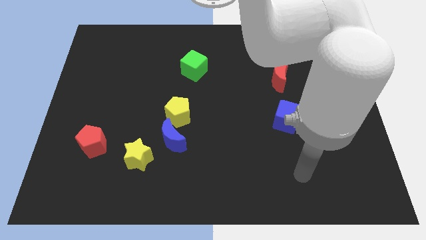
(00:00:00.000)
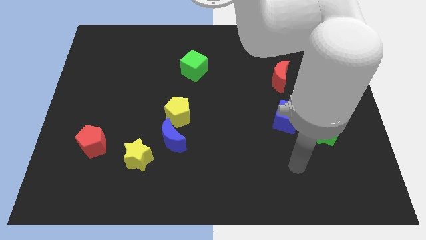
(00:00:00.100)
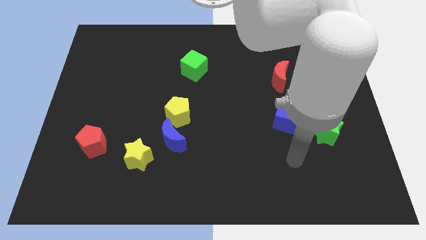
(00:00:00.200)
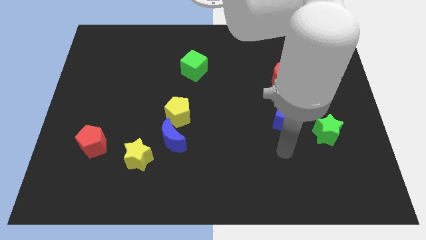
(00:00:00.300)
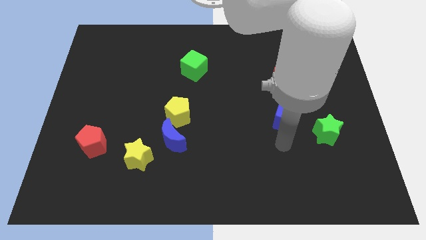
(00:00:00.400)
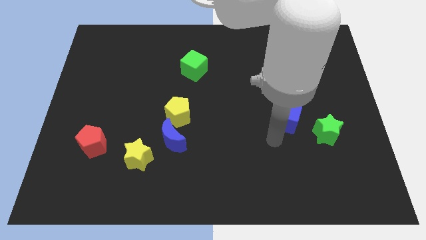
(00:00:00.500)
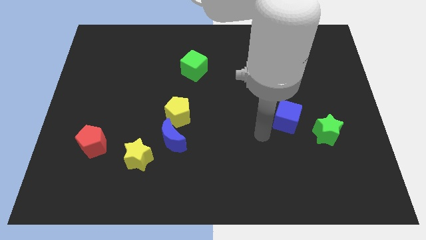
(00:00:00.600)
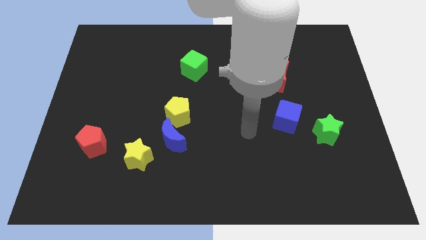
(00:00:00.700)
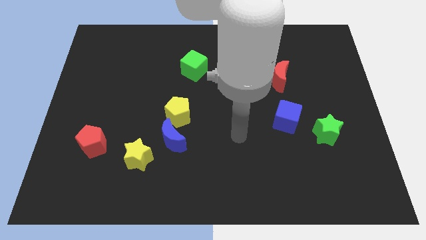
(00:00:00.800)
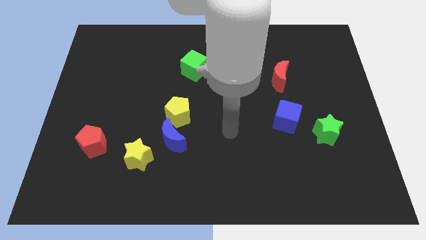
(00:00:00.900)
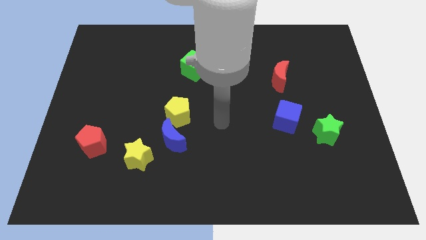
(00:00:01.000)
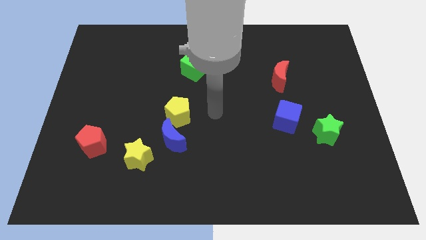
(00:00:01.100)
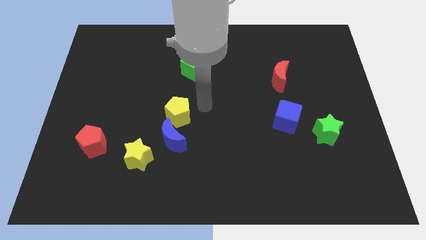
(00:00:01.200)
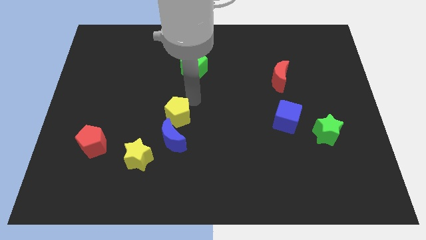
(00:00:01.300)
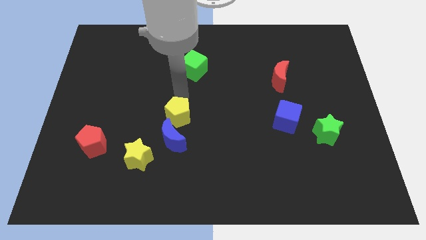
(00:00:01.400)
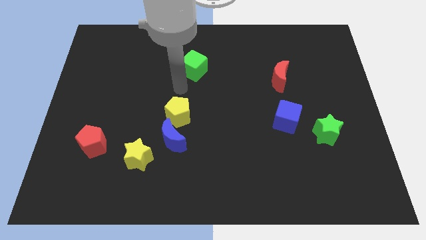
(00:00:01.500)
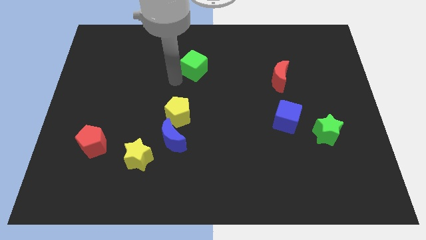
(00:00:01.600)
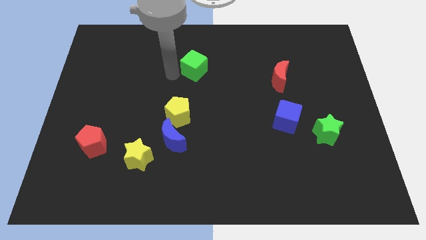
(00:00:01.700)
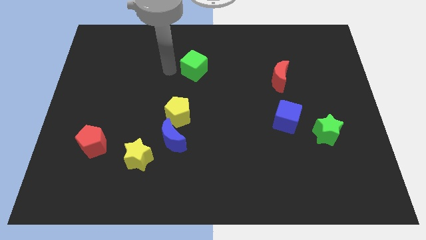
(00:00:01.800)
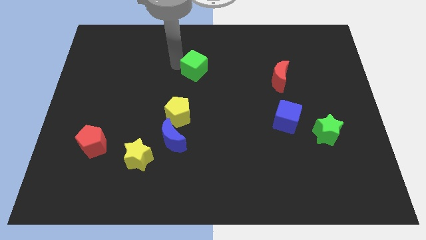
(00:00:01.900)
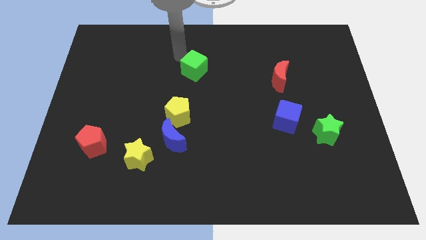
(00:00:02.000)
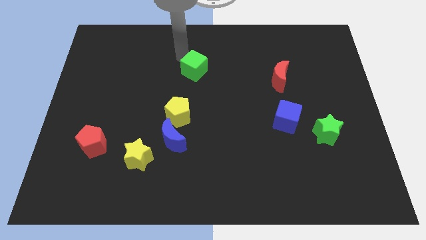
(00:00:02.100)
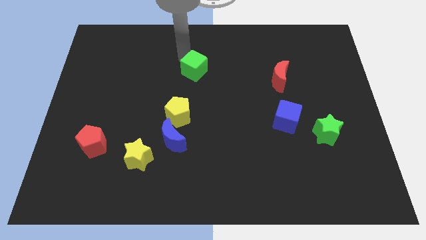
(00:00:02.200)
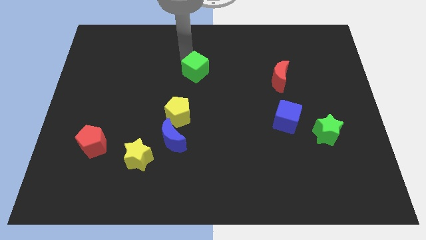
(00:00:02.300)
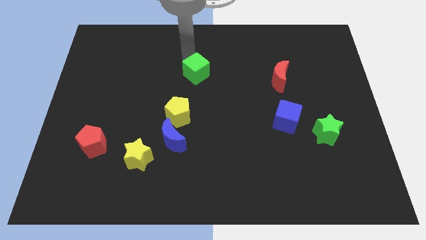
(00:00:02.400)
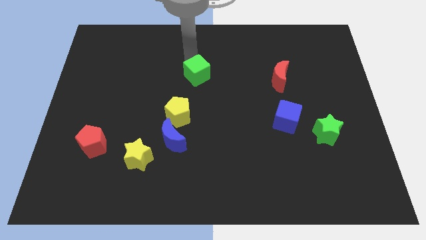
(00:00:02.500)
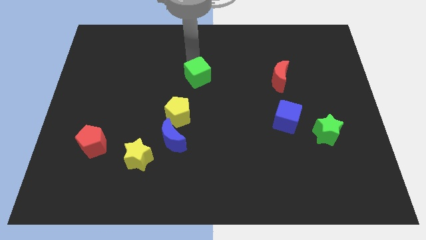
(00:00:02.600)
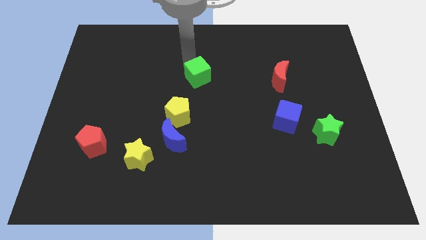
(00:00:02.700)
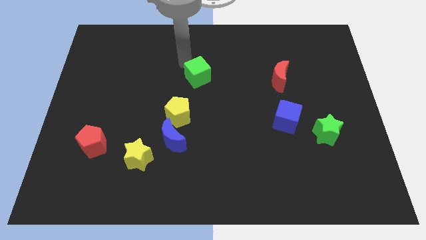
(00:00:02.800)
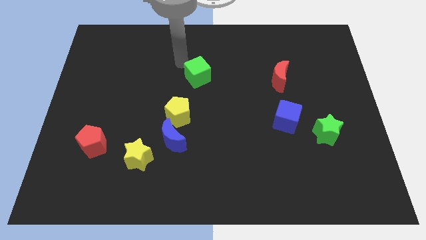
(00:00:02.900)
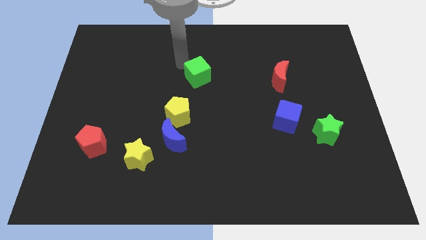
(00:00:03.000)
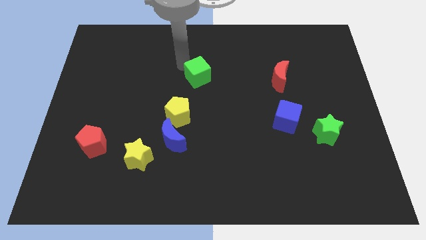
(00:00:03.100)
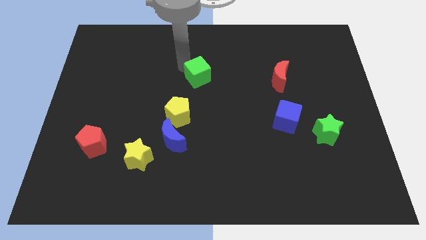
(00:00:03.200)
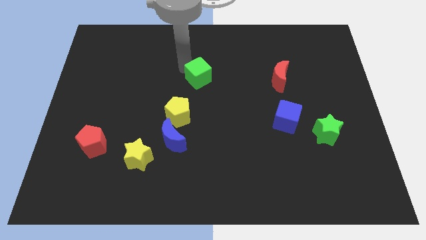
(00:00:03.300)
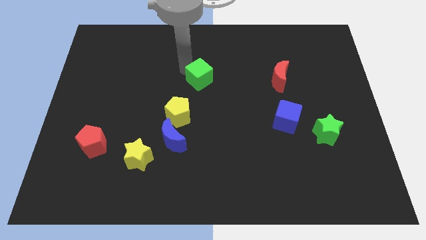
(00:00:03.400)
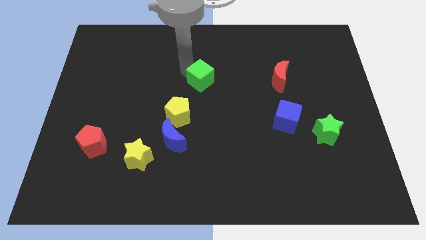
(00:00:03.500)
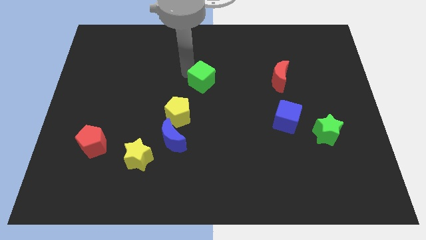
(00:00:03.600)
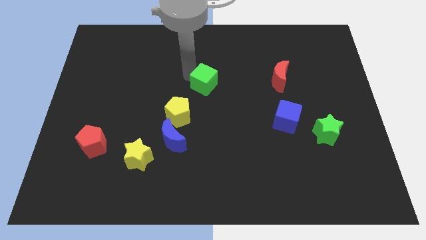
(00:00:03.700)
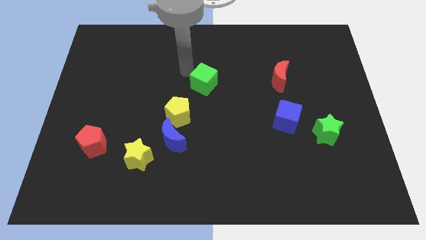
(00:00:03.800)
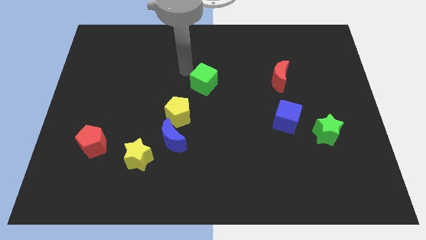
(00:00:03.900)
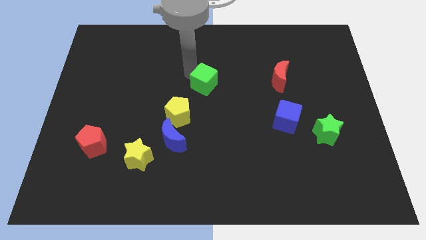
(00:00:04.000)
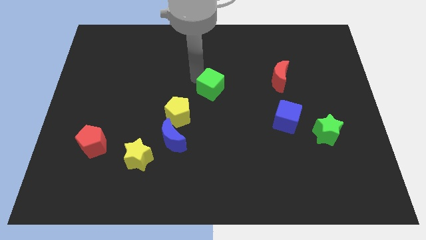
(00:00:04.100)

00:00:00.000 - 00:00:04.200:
slide the green cube somewhat diagonally downwards and to the right

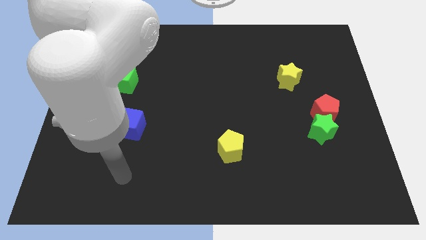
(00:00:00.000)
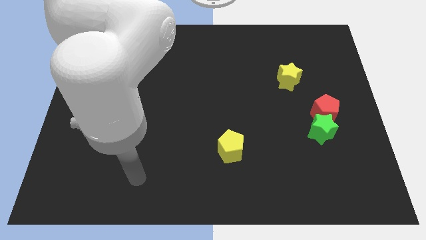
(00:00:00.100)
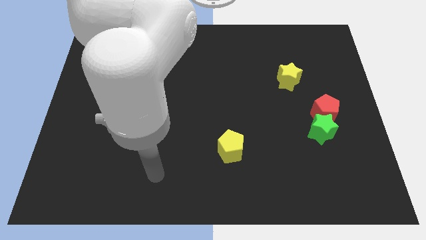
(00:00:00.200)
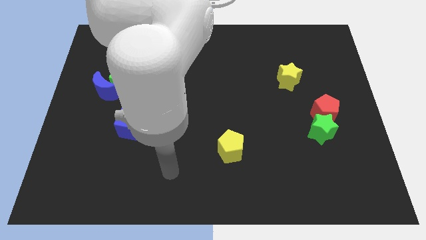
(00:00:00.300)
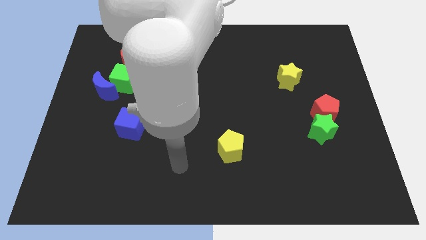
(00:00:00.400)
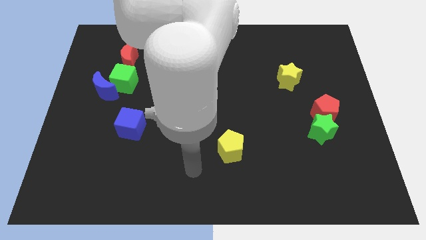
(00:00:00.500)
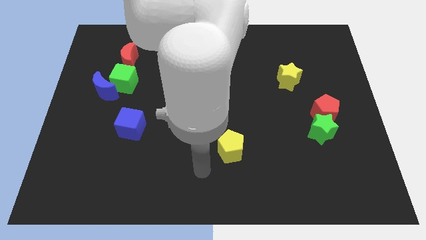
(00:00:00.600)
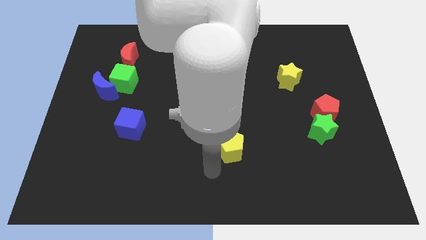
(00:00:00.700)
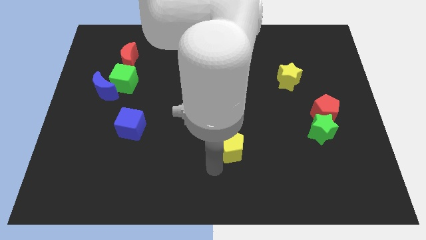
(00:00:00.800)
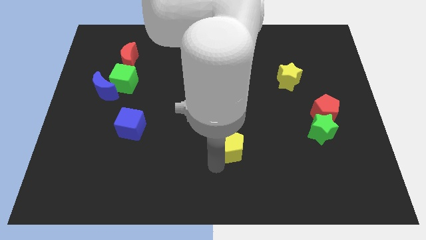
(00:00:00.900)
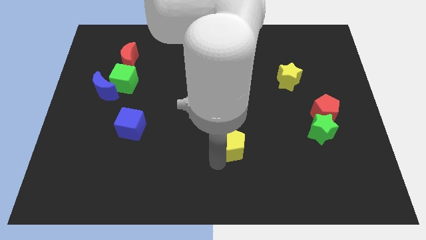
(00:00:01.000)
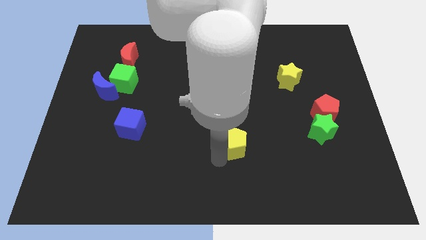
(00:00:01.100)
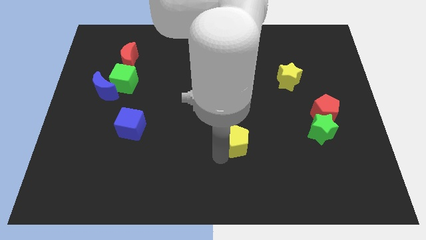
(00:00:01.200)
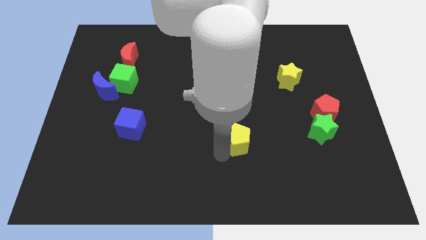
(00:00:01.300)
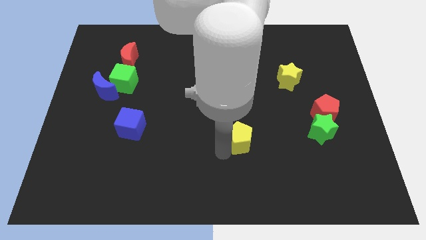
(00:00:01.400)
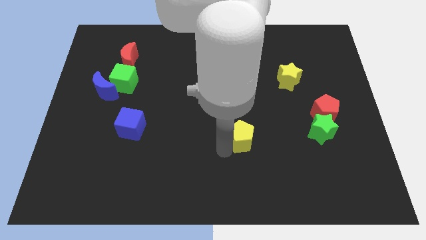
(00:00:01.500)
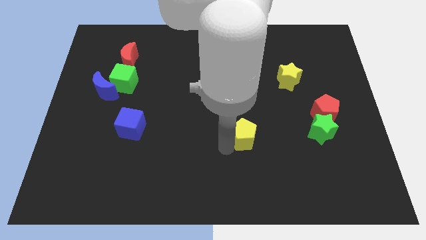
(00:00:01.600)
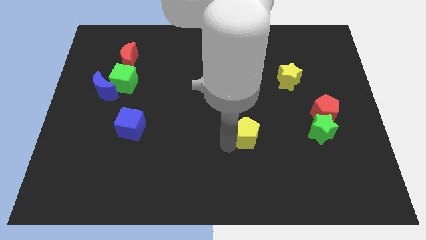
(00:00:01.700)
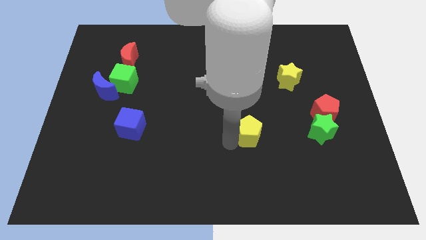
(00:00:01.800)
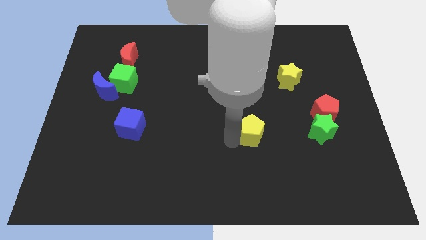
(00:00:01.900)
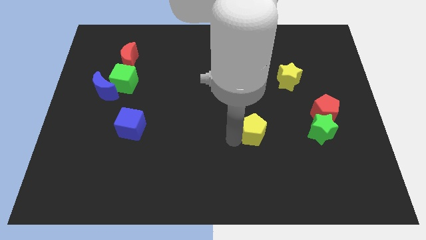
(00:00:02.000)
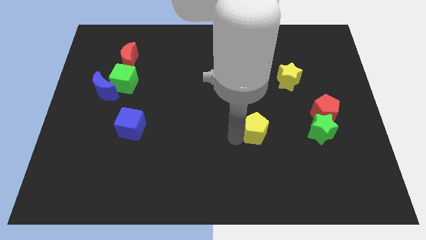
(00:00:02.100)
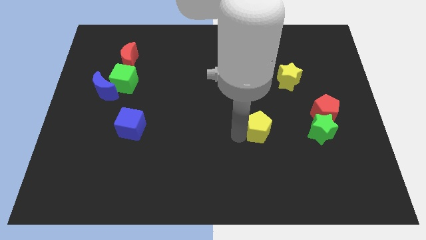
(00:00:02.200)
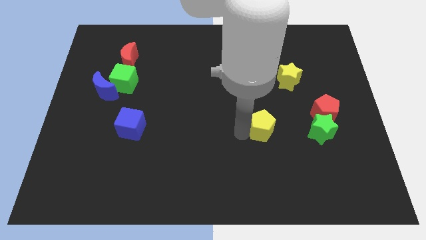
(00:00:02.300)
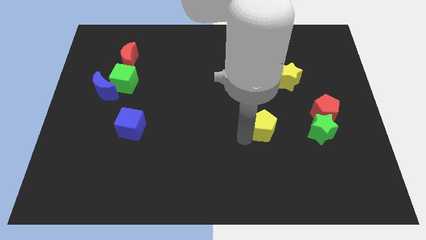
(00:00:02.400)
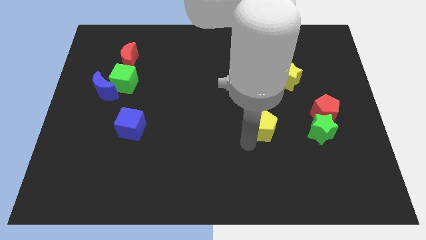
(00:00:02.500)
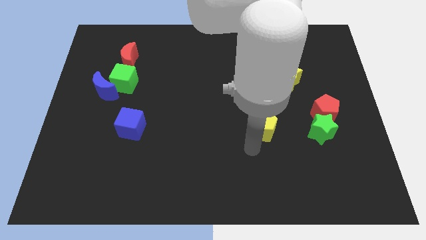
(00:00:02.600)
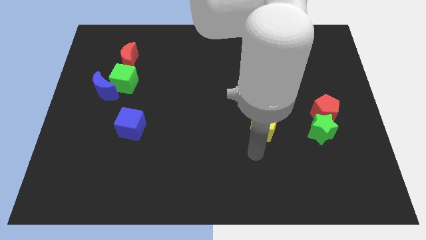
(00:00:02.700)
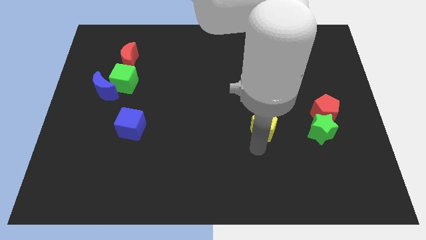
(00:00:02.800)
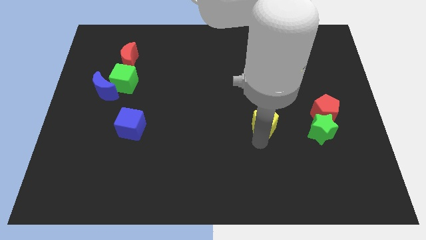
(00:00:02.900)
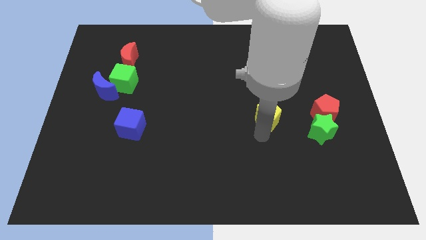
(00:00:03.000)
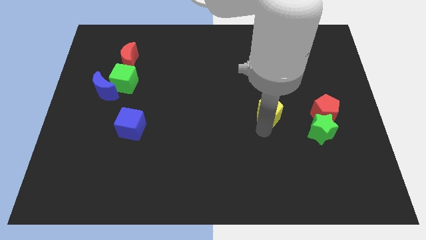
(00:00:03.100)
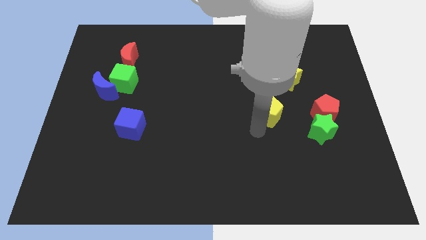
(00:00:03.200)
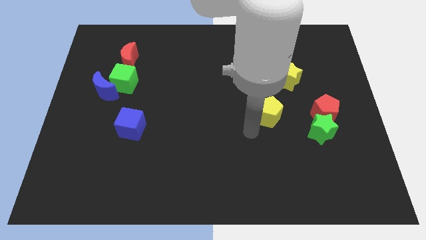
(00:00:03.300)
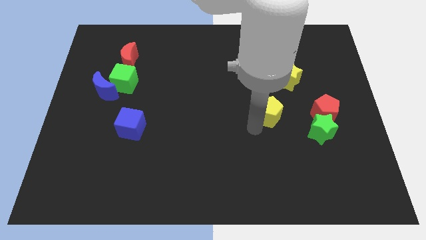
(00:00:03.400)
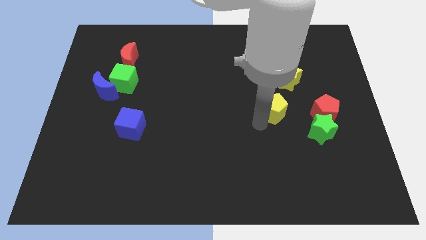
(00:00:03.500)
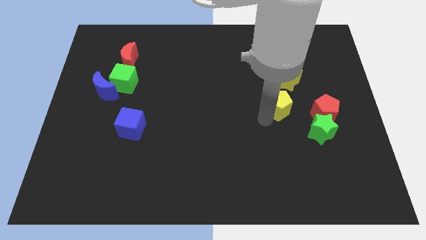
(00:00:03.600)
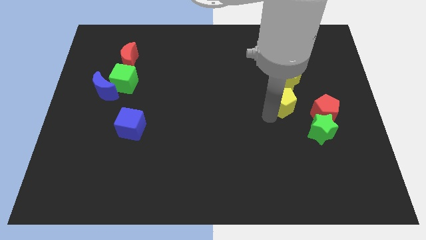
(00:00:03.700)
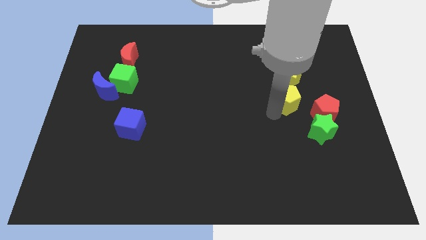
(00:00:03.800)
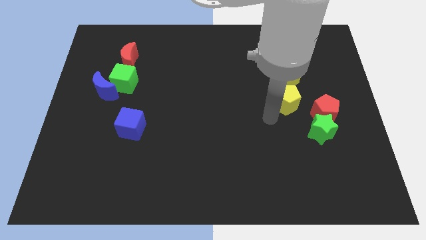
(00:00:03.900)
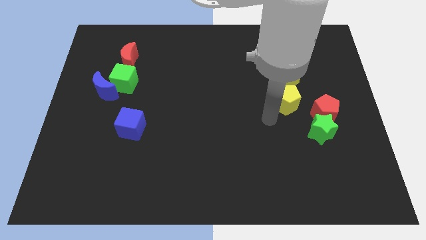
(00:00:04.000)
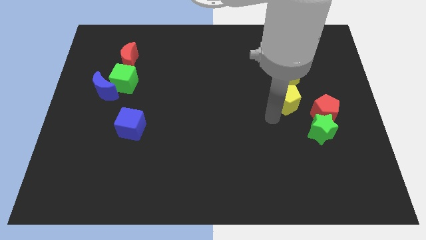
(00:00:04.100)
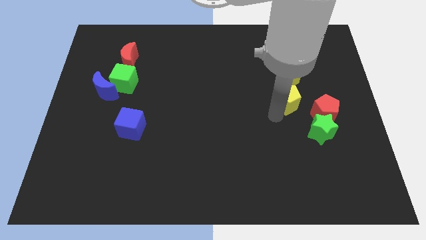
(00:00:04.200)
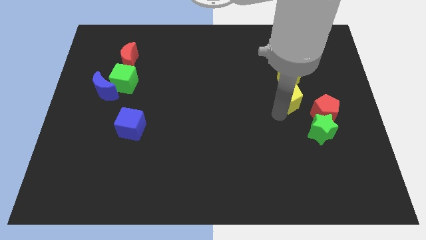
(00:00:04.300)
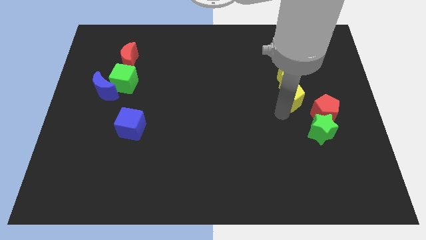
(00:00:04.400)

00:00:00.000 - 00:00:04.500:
move the yellow pentagon up and right
